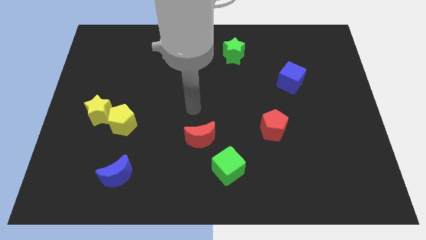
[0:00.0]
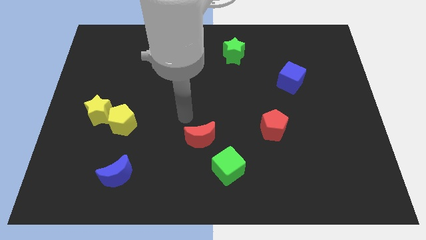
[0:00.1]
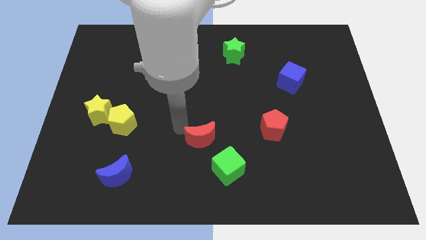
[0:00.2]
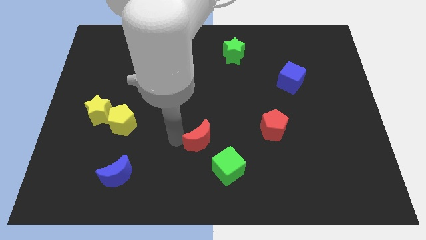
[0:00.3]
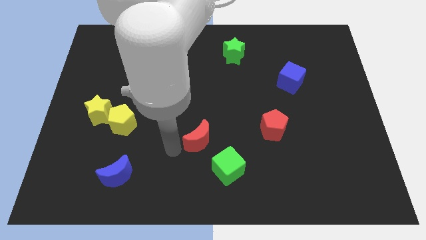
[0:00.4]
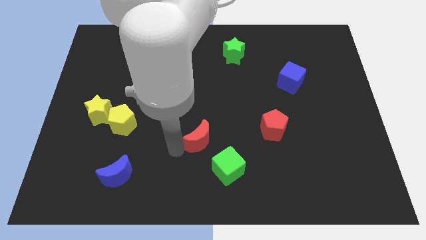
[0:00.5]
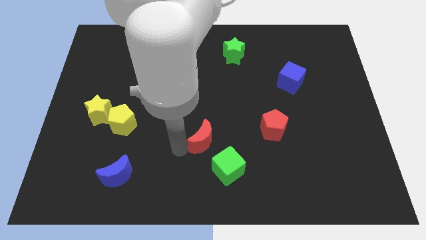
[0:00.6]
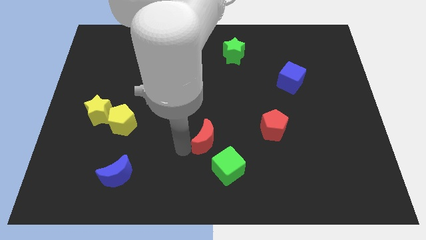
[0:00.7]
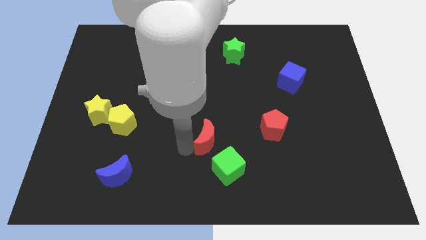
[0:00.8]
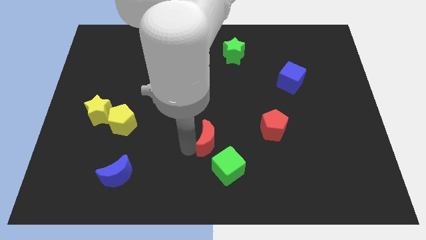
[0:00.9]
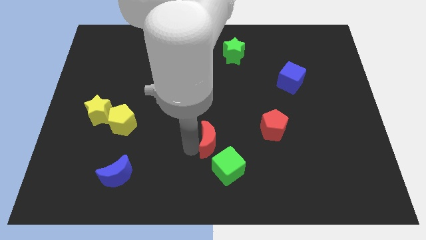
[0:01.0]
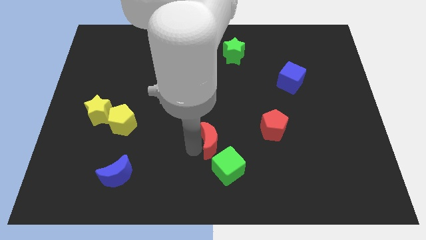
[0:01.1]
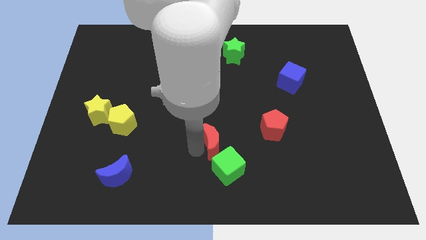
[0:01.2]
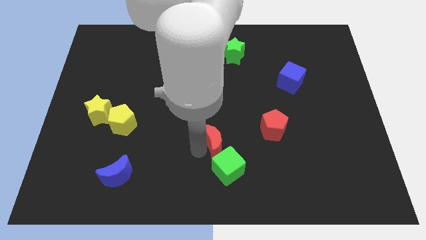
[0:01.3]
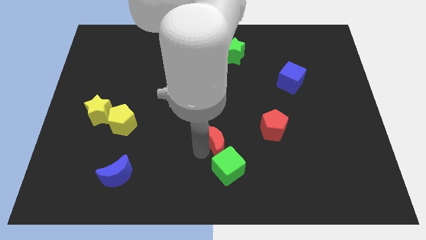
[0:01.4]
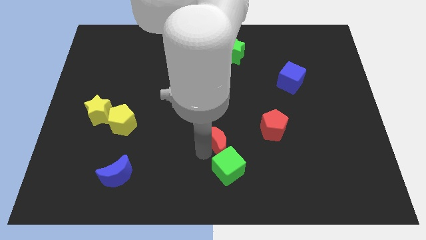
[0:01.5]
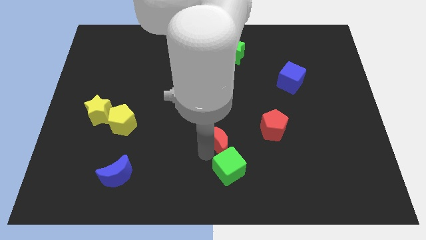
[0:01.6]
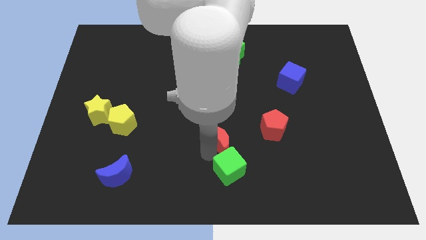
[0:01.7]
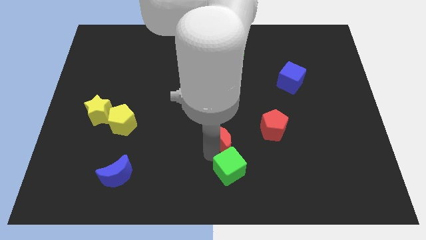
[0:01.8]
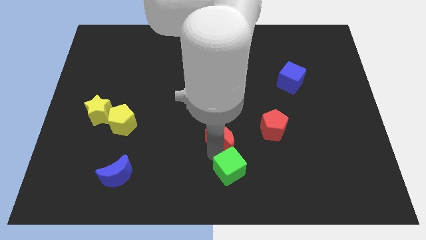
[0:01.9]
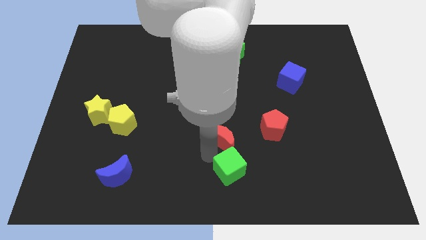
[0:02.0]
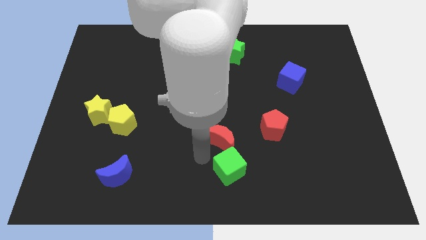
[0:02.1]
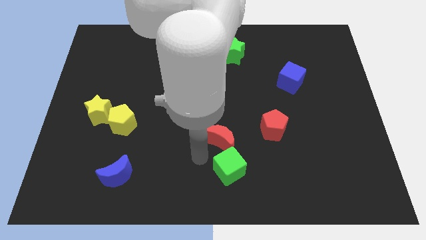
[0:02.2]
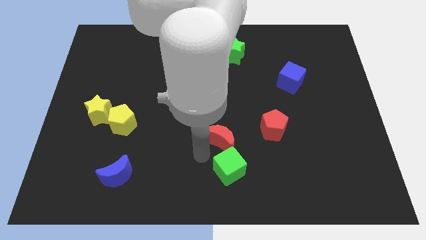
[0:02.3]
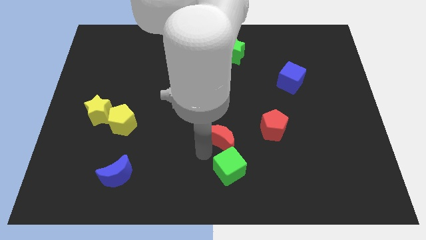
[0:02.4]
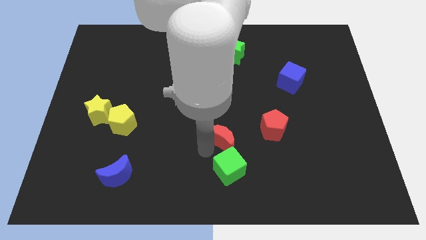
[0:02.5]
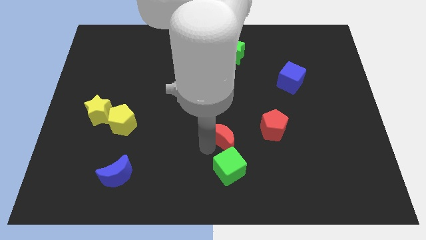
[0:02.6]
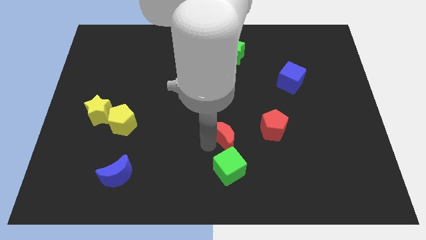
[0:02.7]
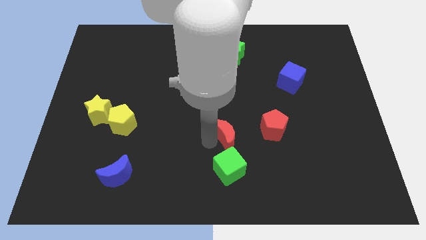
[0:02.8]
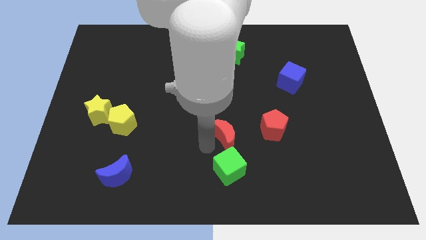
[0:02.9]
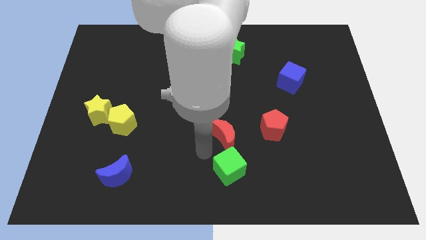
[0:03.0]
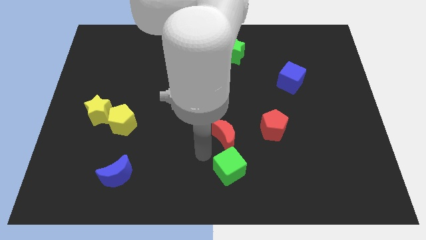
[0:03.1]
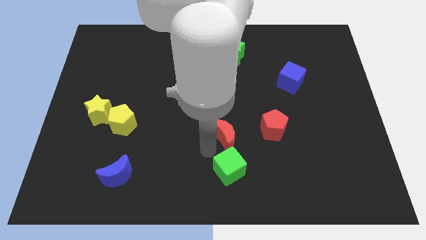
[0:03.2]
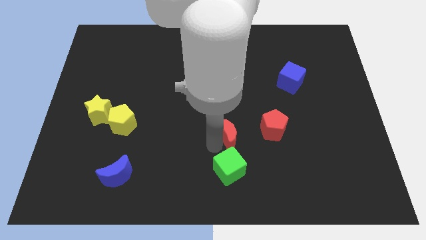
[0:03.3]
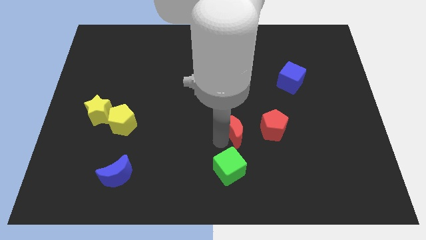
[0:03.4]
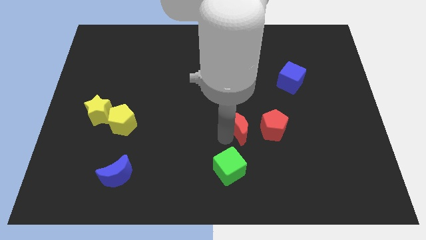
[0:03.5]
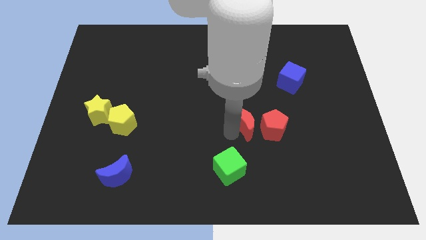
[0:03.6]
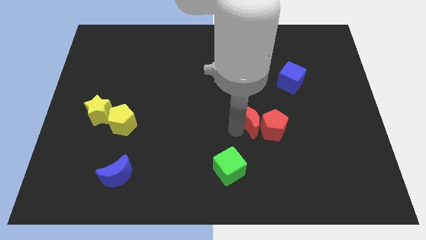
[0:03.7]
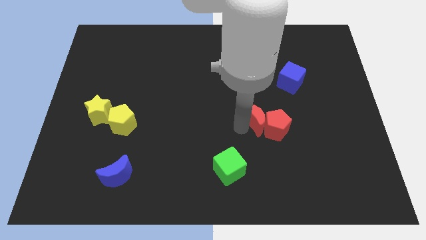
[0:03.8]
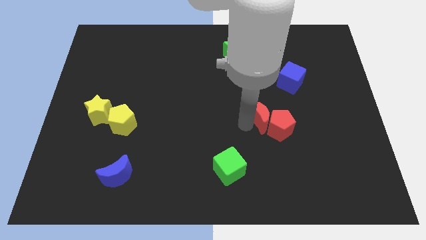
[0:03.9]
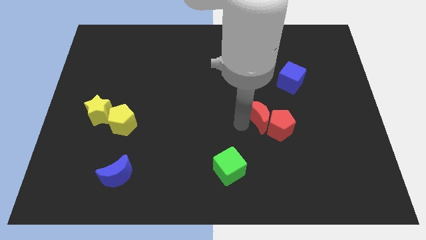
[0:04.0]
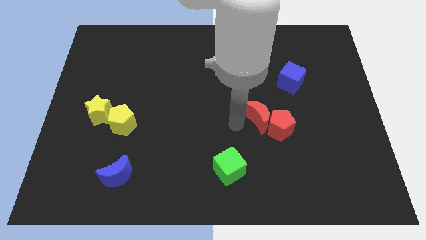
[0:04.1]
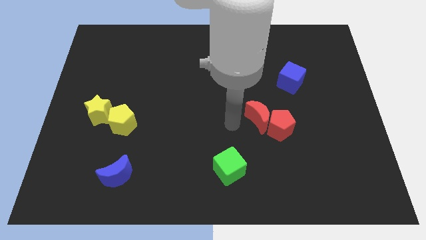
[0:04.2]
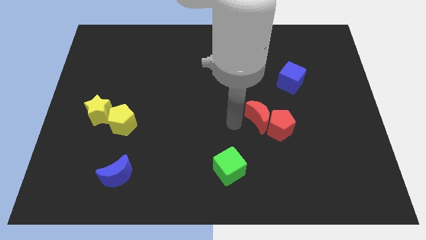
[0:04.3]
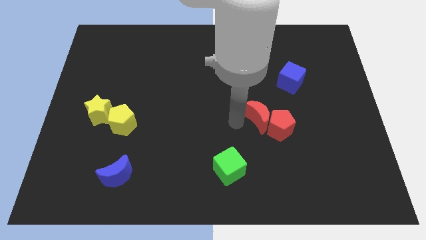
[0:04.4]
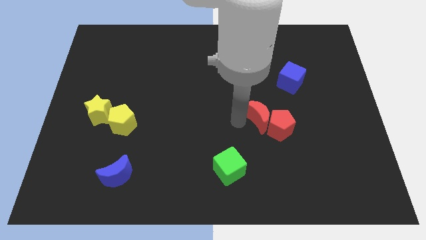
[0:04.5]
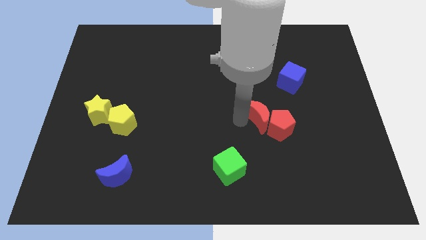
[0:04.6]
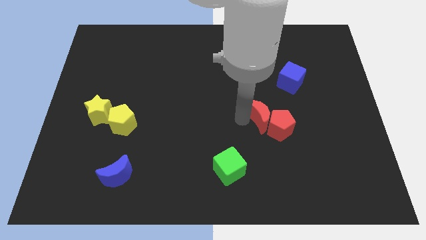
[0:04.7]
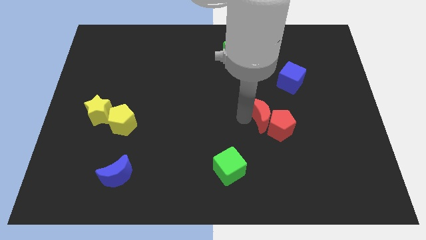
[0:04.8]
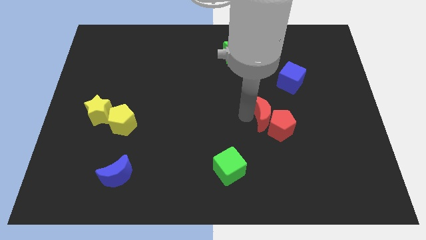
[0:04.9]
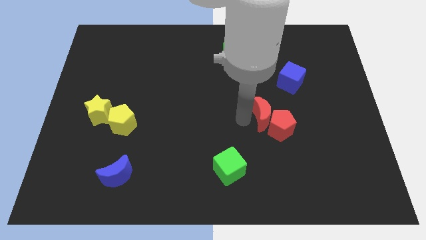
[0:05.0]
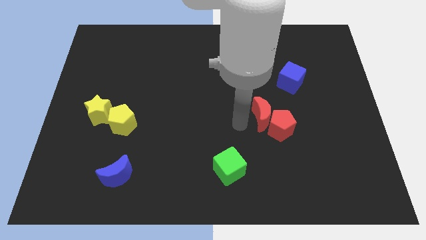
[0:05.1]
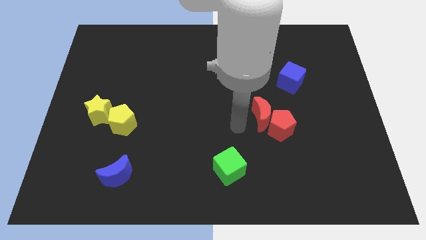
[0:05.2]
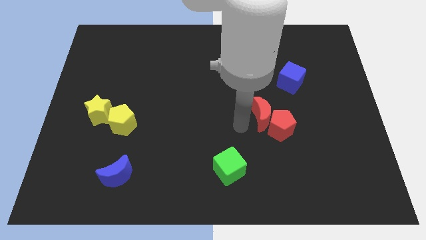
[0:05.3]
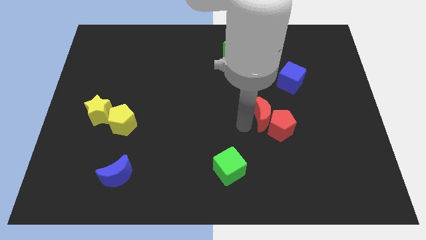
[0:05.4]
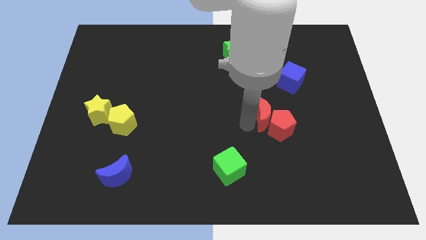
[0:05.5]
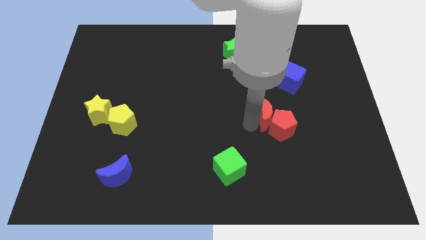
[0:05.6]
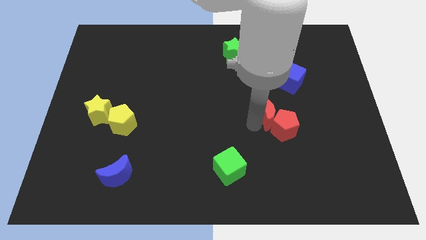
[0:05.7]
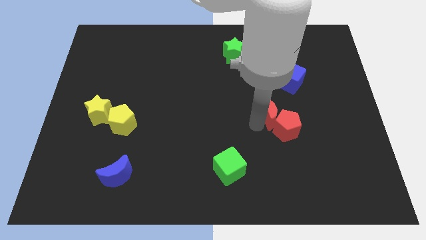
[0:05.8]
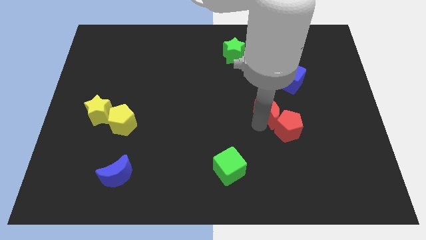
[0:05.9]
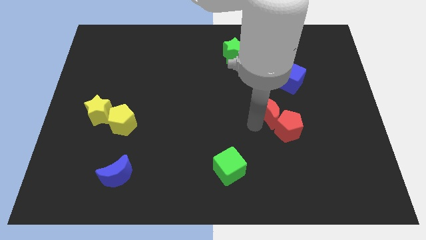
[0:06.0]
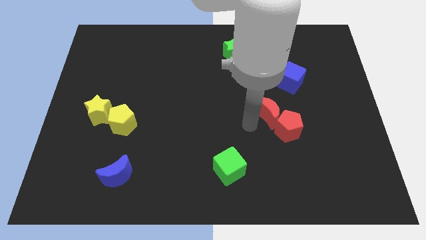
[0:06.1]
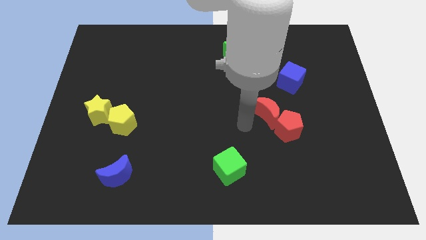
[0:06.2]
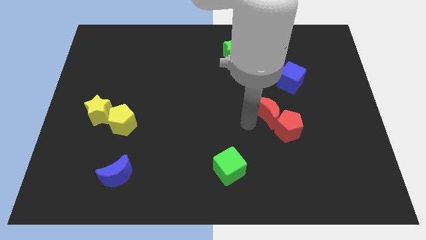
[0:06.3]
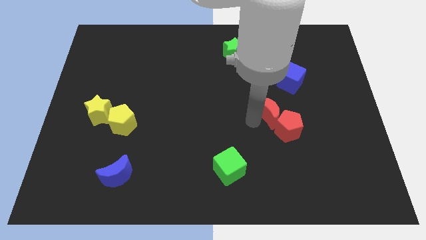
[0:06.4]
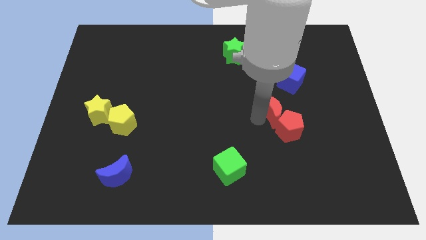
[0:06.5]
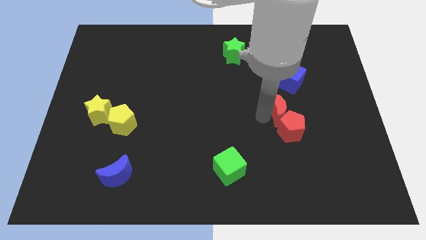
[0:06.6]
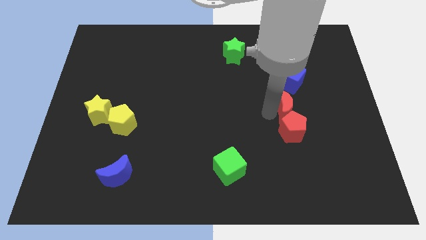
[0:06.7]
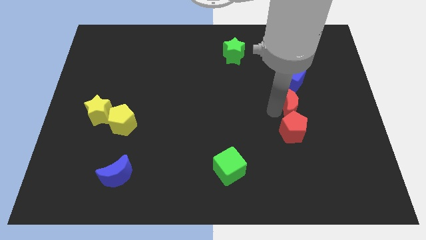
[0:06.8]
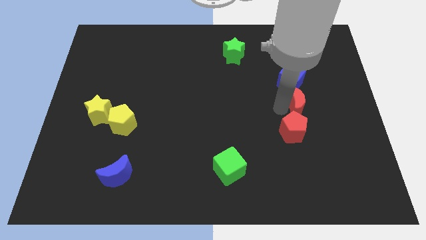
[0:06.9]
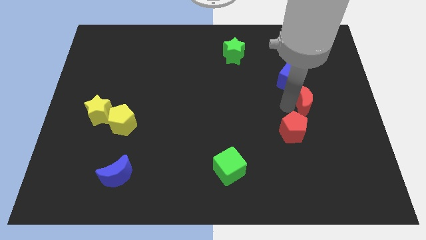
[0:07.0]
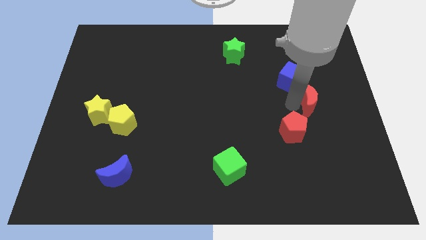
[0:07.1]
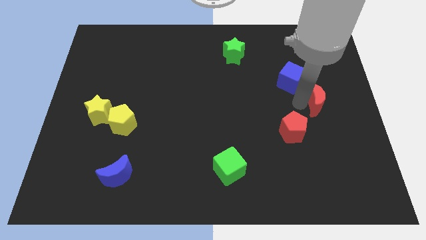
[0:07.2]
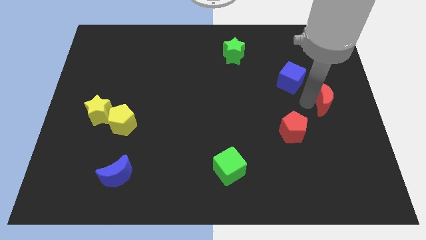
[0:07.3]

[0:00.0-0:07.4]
push the red moon to the right side of the board
